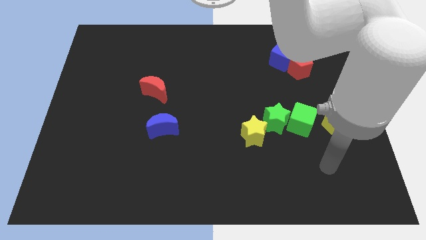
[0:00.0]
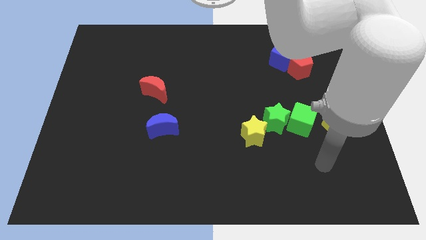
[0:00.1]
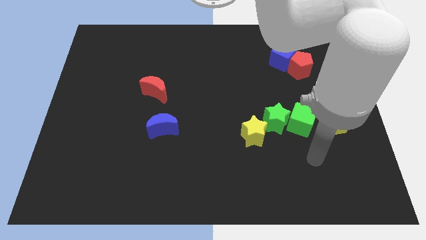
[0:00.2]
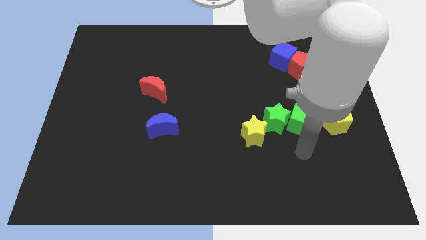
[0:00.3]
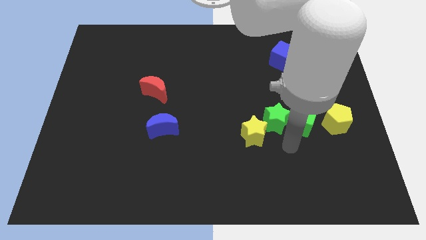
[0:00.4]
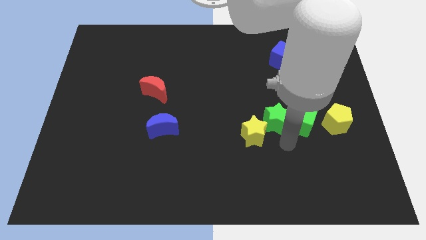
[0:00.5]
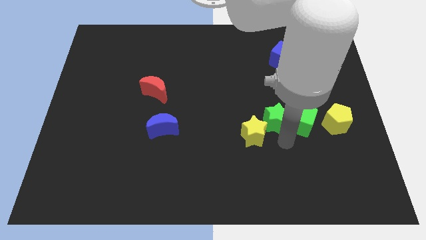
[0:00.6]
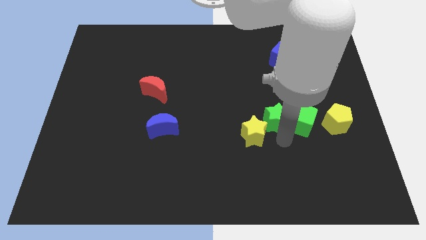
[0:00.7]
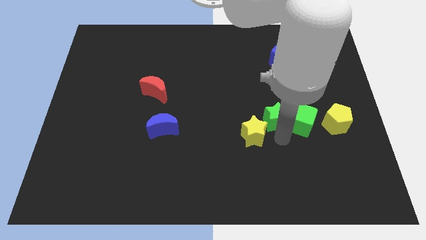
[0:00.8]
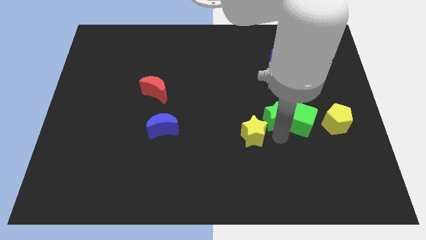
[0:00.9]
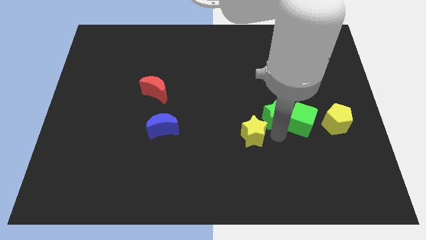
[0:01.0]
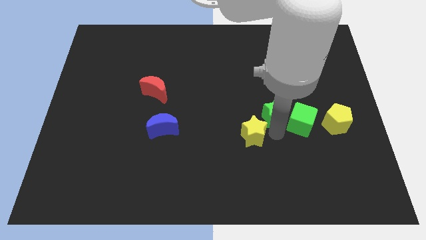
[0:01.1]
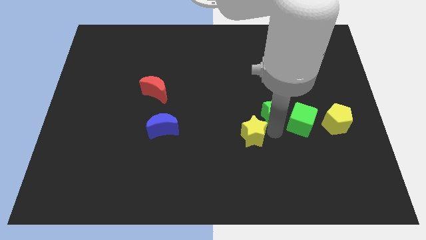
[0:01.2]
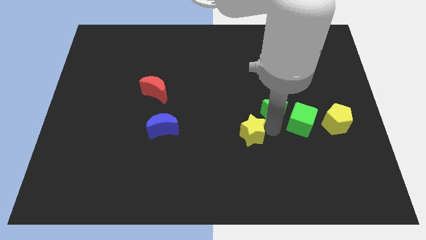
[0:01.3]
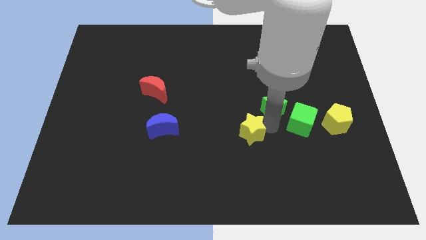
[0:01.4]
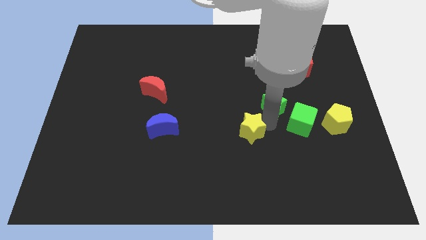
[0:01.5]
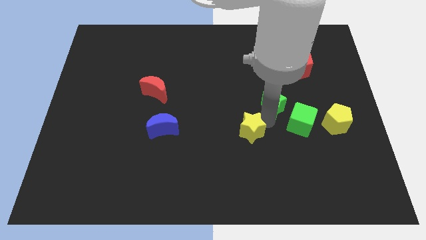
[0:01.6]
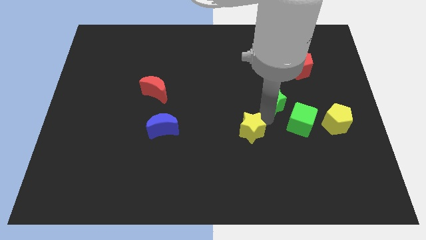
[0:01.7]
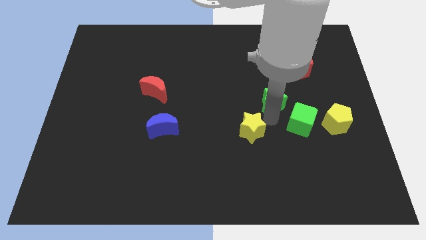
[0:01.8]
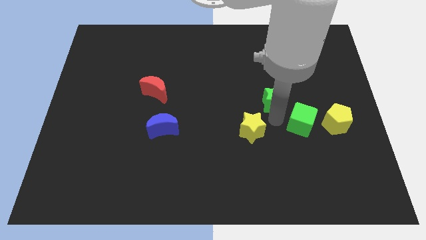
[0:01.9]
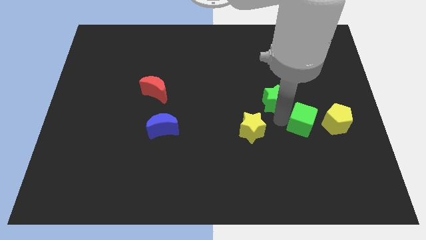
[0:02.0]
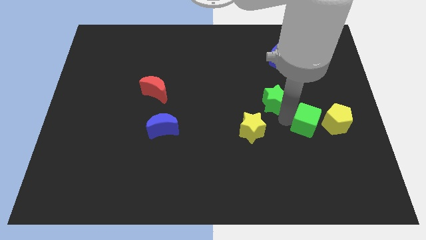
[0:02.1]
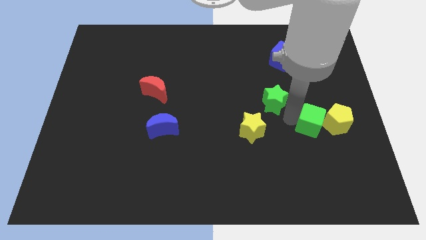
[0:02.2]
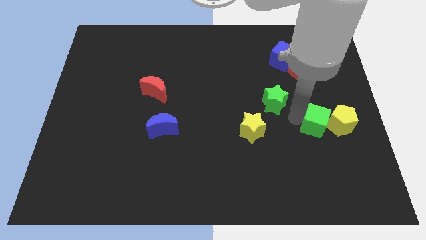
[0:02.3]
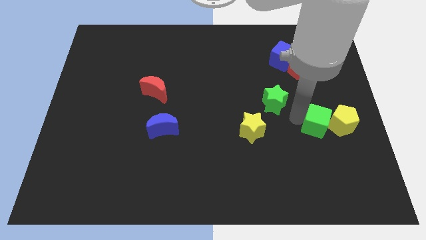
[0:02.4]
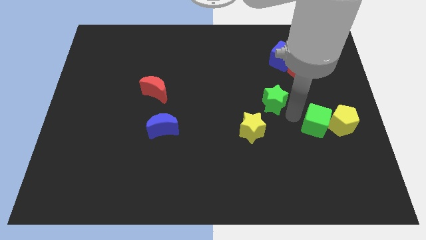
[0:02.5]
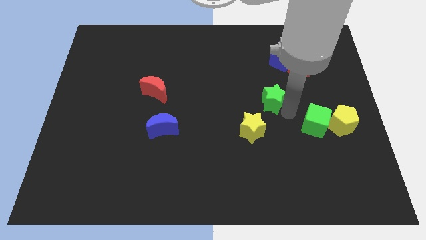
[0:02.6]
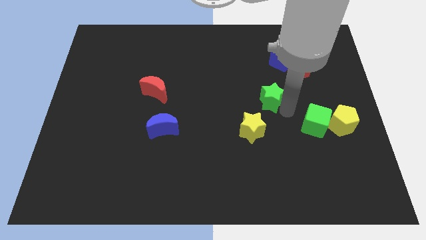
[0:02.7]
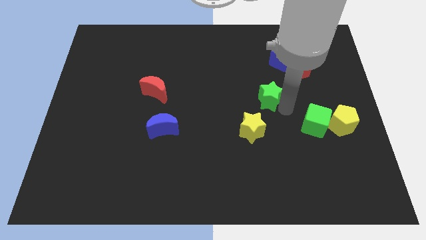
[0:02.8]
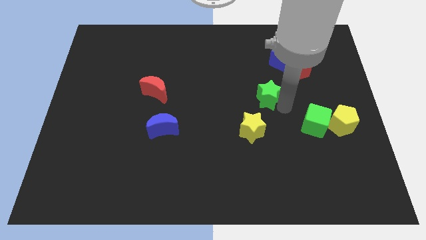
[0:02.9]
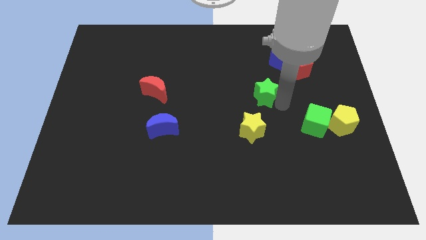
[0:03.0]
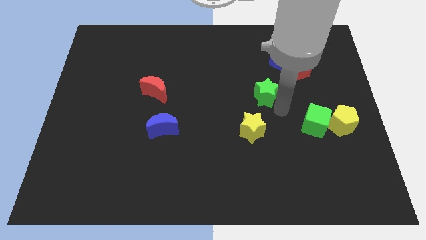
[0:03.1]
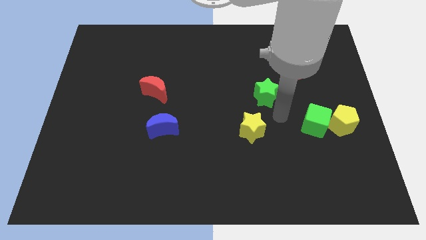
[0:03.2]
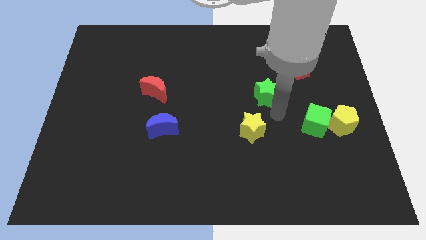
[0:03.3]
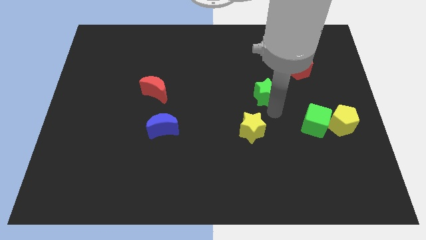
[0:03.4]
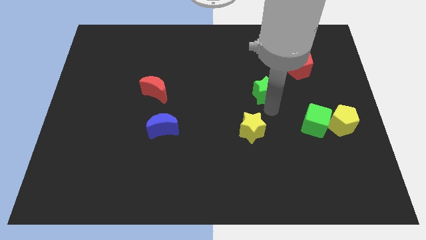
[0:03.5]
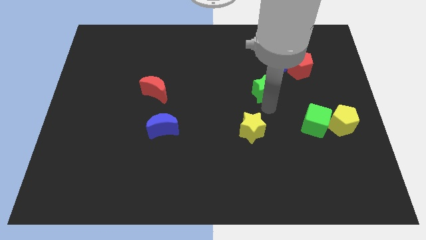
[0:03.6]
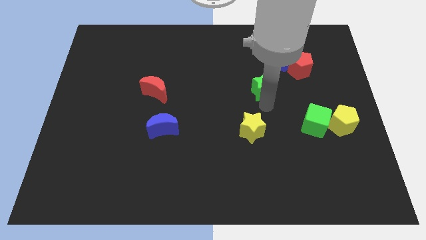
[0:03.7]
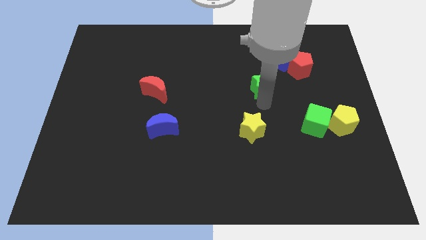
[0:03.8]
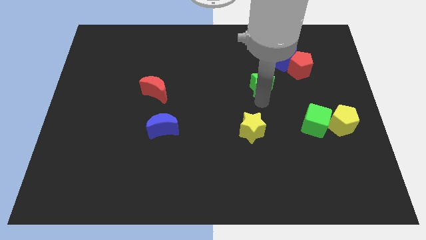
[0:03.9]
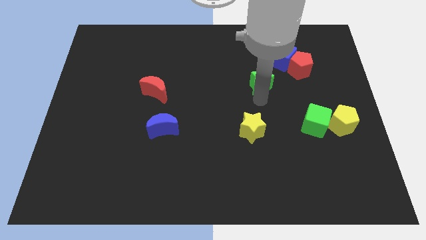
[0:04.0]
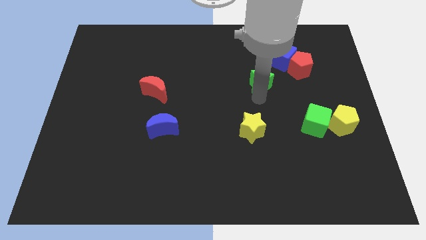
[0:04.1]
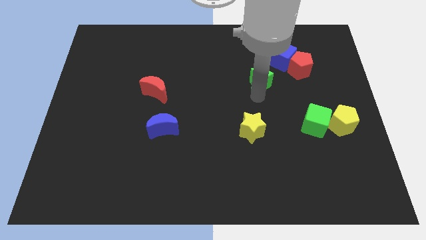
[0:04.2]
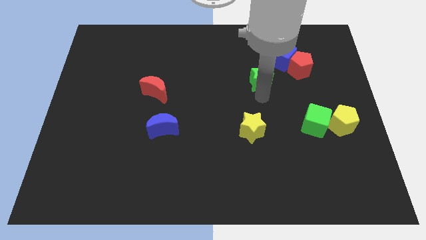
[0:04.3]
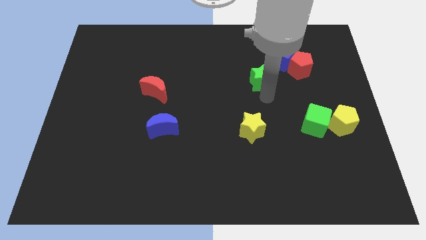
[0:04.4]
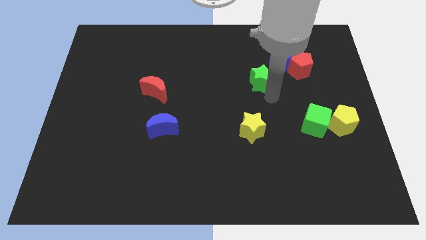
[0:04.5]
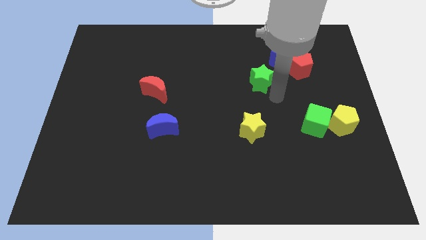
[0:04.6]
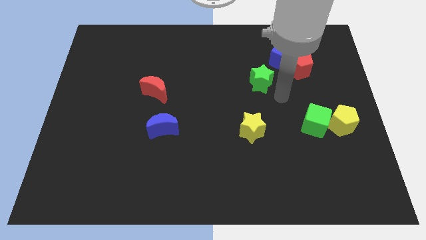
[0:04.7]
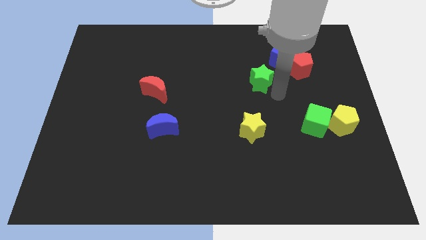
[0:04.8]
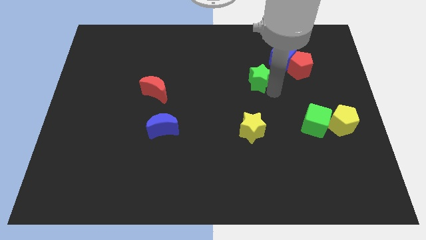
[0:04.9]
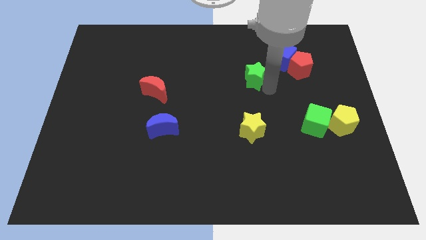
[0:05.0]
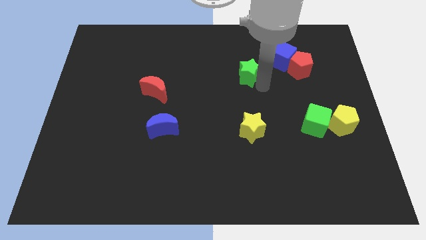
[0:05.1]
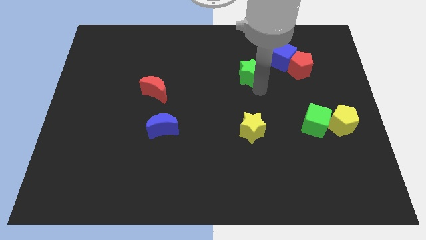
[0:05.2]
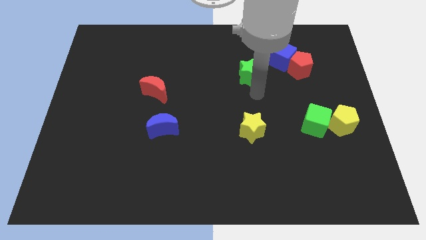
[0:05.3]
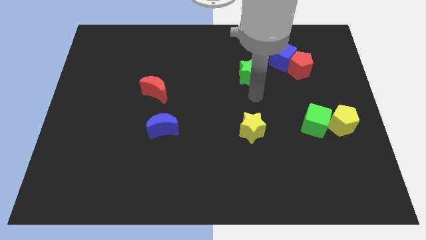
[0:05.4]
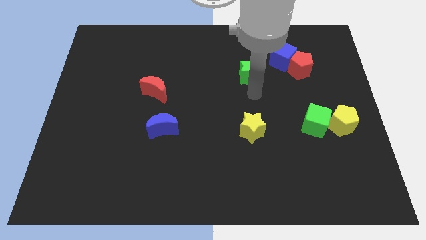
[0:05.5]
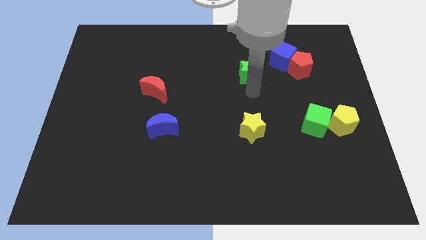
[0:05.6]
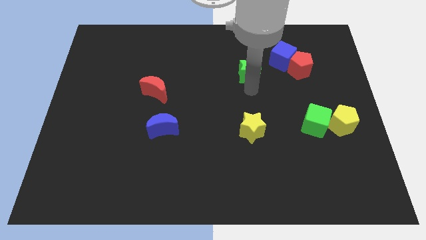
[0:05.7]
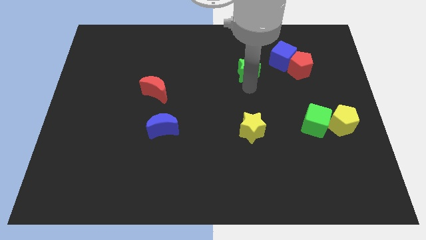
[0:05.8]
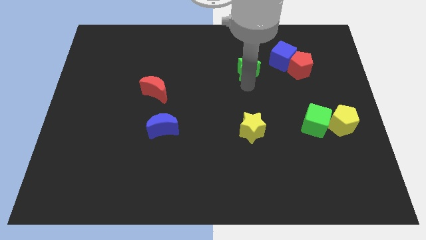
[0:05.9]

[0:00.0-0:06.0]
slide the green star to the left of the blue cube
